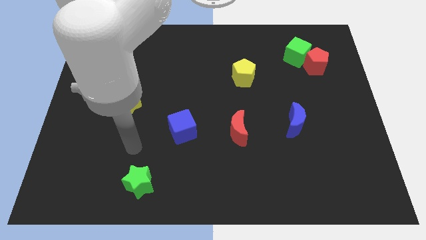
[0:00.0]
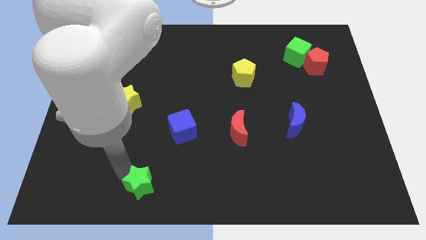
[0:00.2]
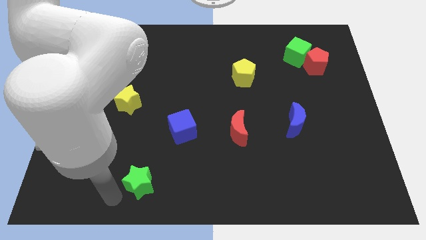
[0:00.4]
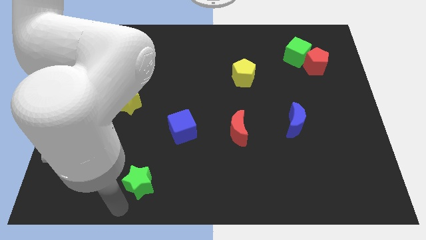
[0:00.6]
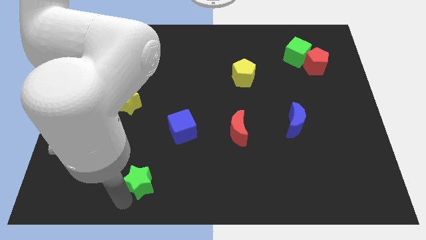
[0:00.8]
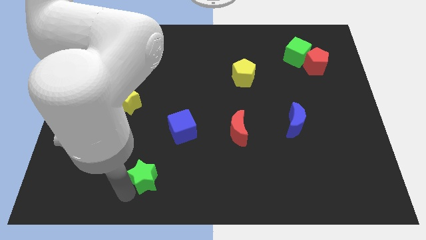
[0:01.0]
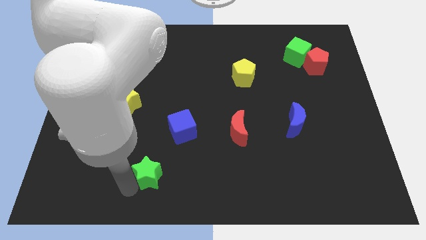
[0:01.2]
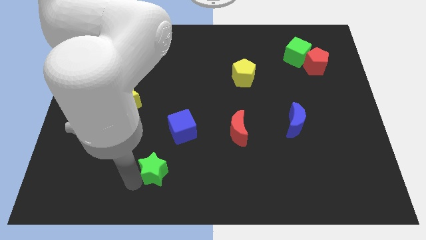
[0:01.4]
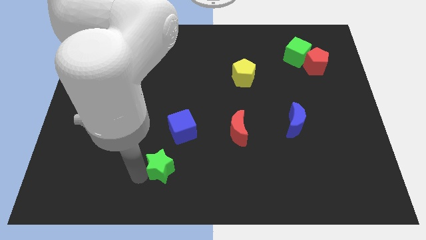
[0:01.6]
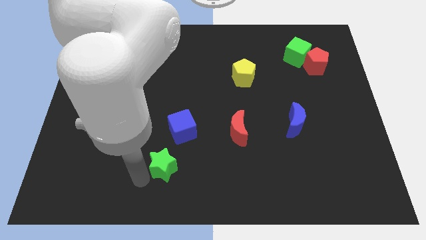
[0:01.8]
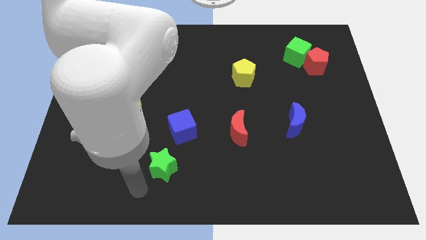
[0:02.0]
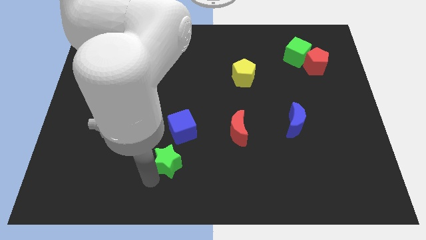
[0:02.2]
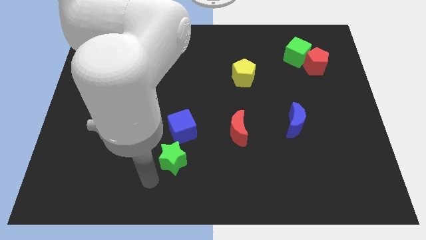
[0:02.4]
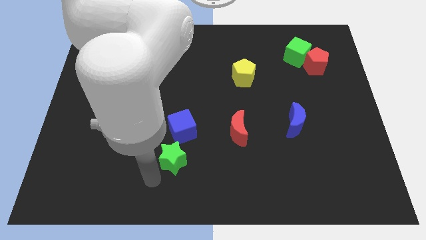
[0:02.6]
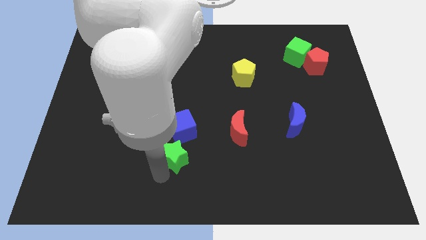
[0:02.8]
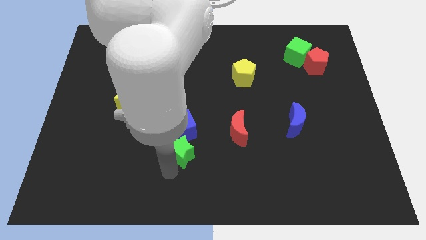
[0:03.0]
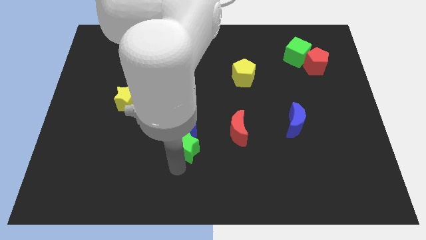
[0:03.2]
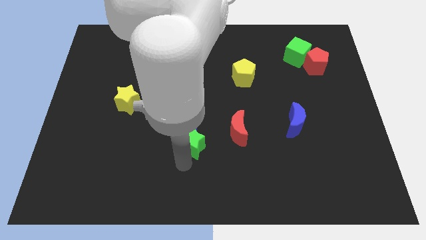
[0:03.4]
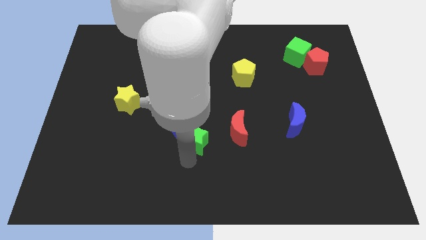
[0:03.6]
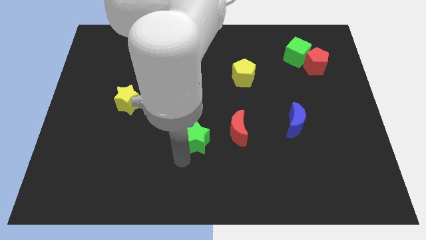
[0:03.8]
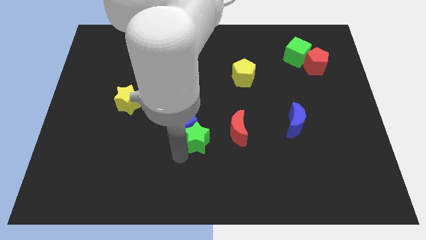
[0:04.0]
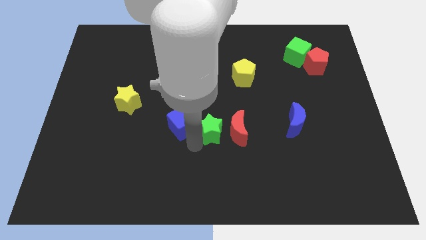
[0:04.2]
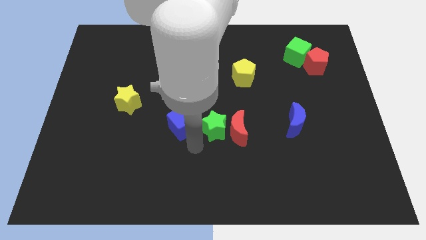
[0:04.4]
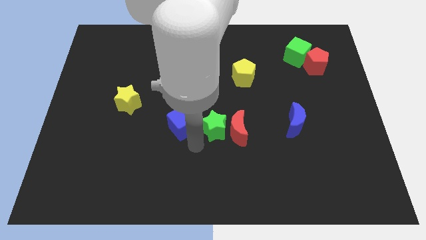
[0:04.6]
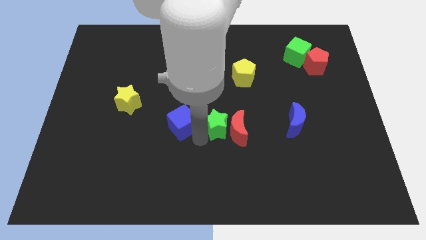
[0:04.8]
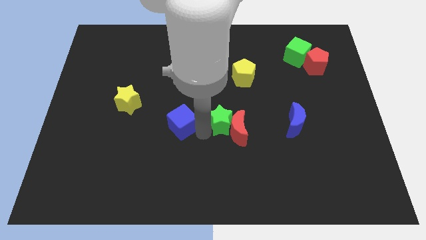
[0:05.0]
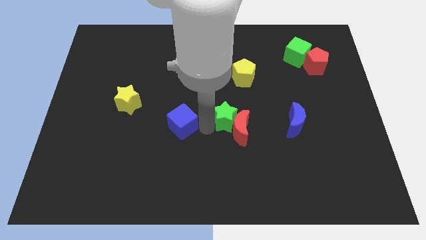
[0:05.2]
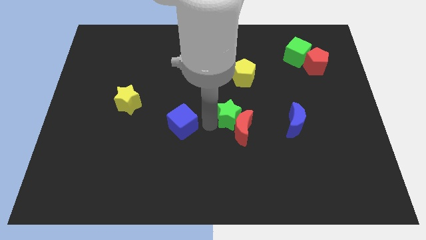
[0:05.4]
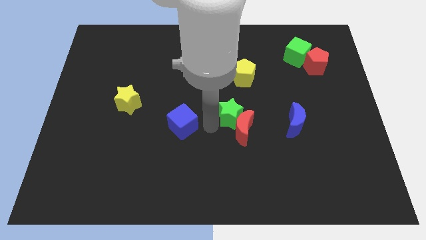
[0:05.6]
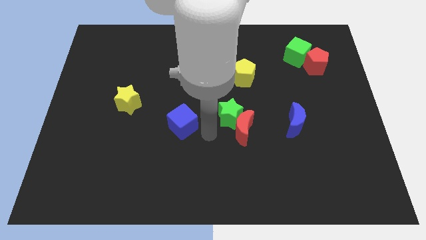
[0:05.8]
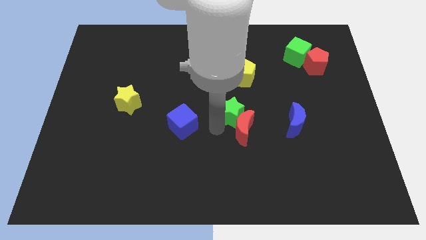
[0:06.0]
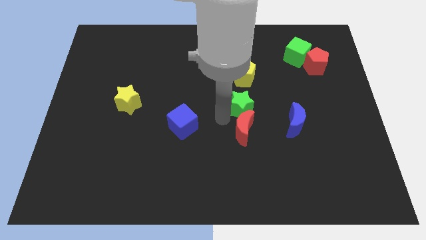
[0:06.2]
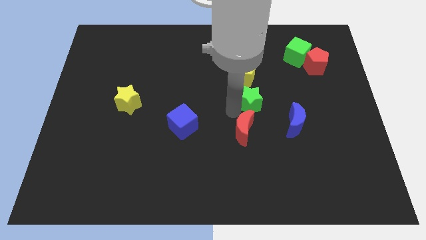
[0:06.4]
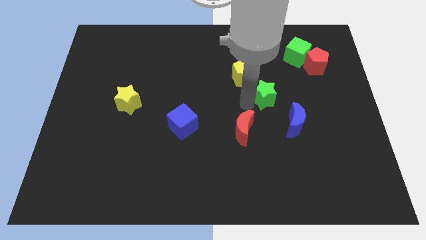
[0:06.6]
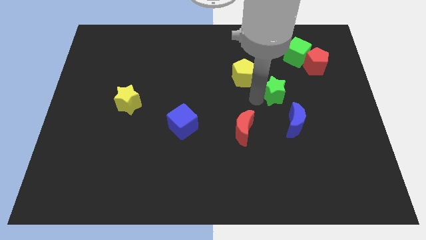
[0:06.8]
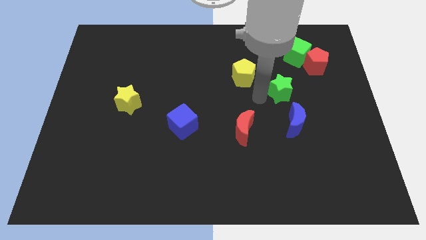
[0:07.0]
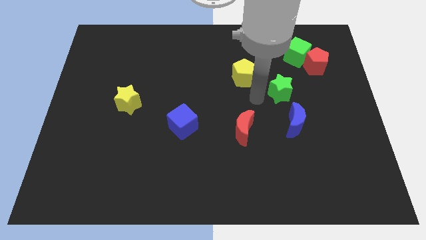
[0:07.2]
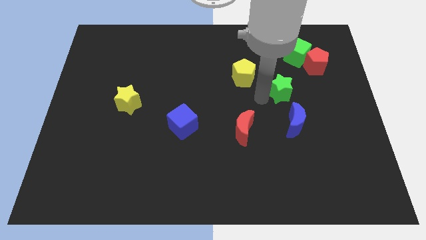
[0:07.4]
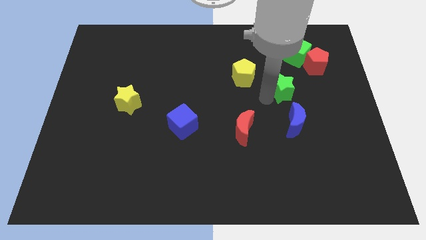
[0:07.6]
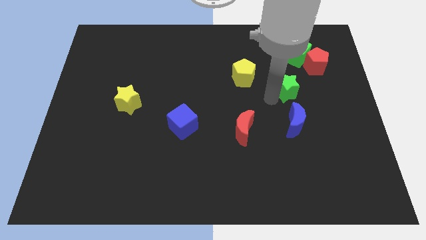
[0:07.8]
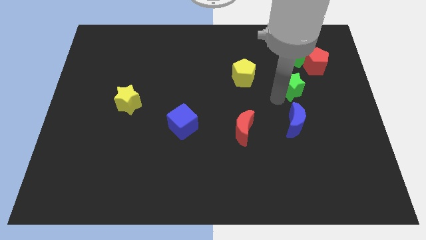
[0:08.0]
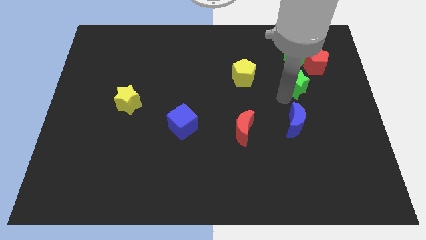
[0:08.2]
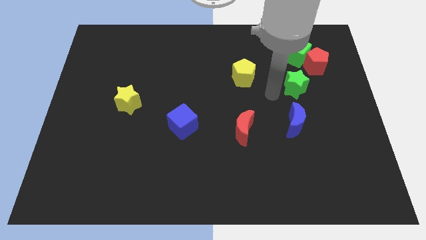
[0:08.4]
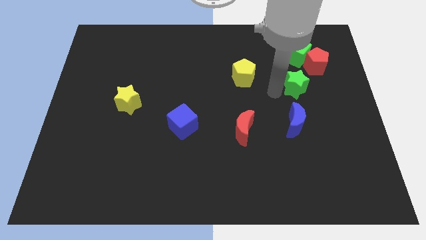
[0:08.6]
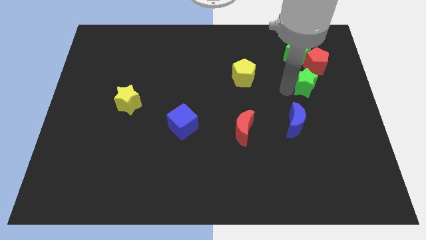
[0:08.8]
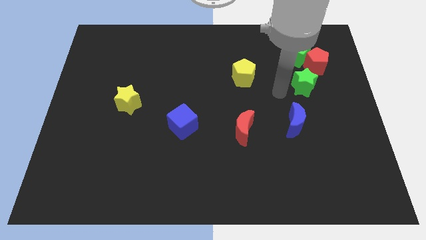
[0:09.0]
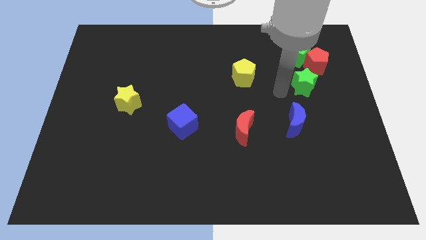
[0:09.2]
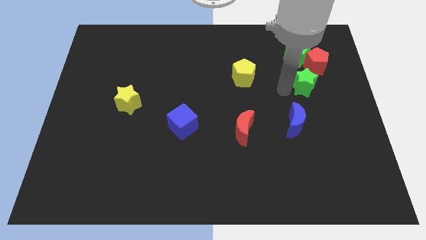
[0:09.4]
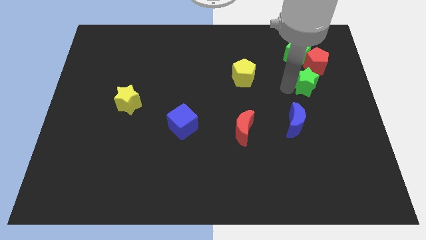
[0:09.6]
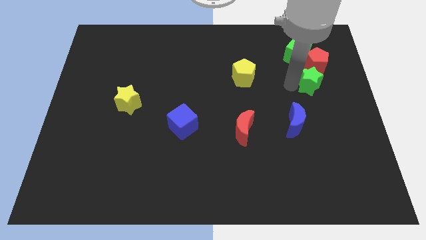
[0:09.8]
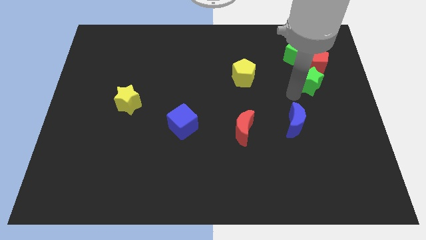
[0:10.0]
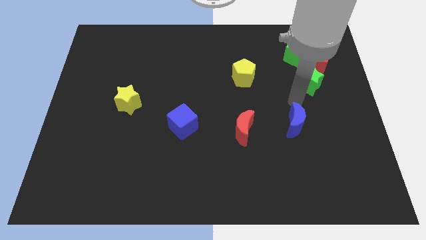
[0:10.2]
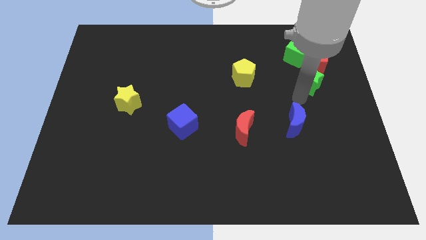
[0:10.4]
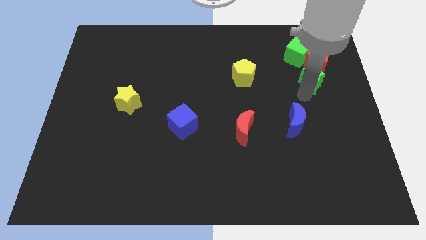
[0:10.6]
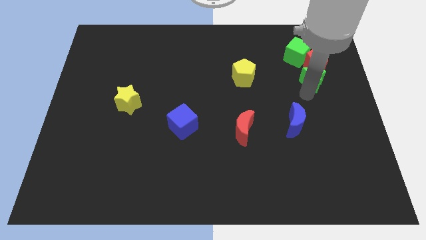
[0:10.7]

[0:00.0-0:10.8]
put the green star to the bottom right side of the green cube
